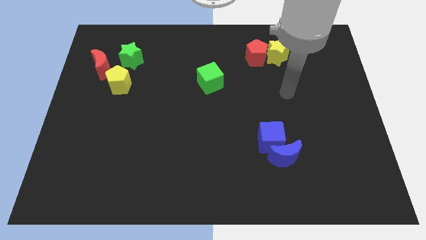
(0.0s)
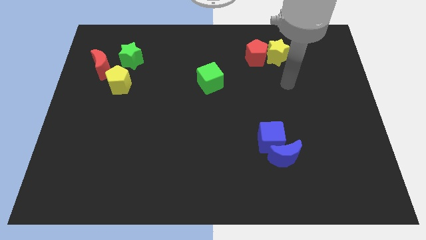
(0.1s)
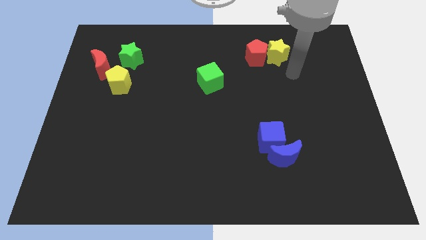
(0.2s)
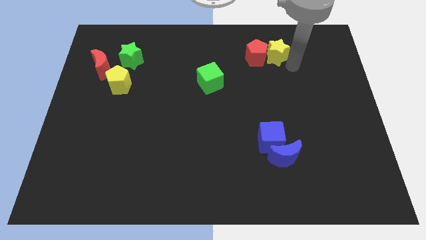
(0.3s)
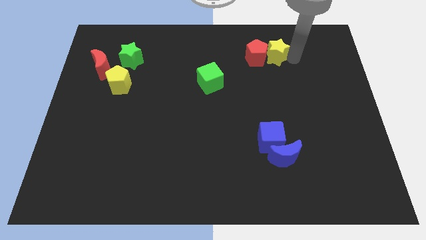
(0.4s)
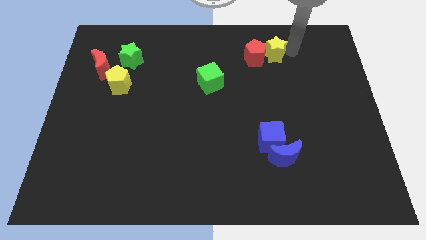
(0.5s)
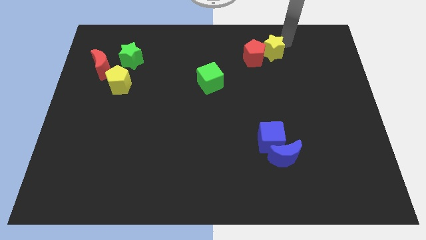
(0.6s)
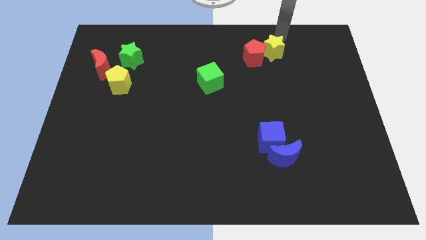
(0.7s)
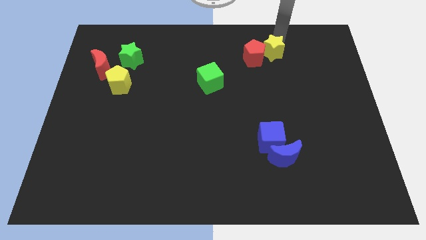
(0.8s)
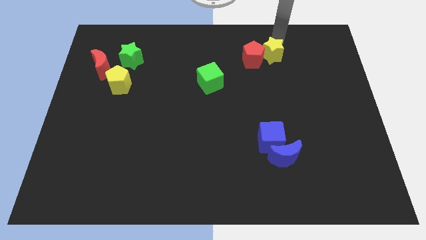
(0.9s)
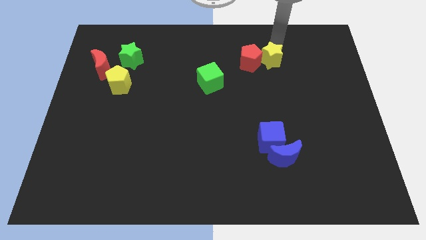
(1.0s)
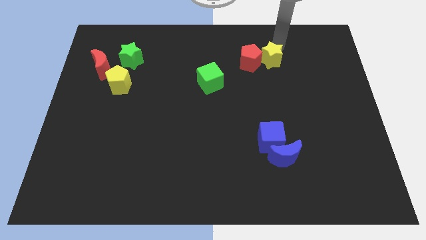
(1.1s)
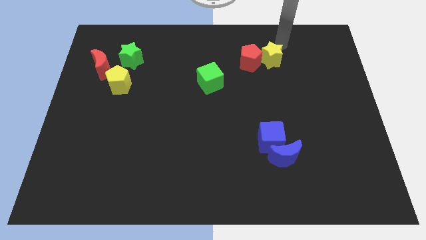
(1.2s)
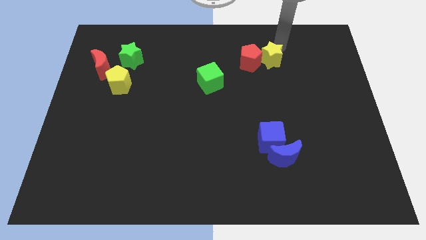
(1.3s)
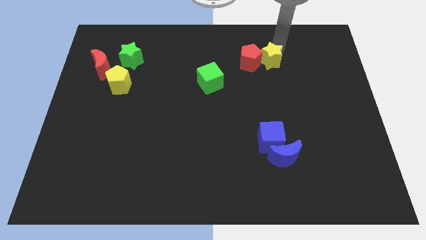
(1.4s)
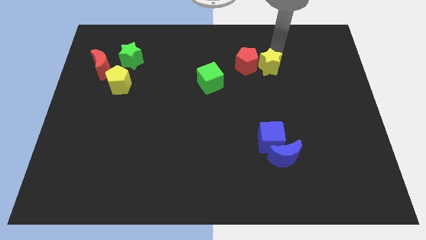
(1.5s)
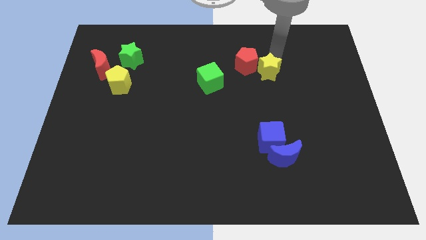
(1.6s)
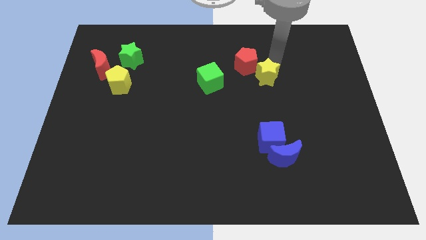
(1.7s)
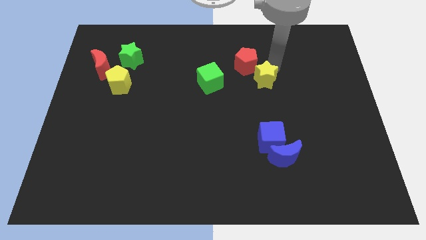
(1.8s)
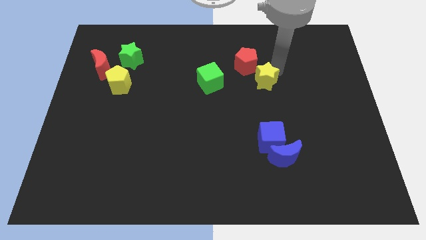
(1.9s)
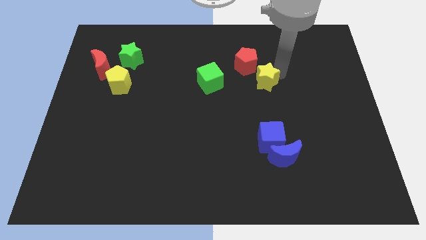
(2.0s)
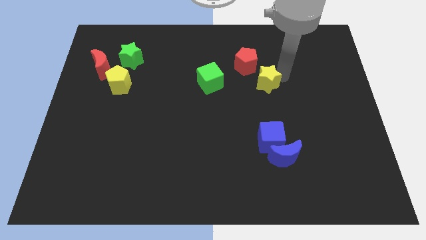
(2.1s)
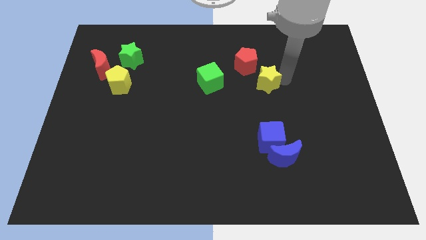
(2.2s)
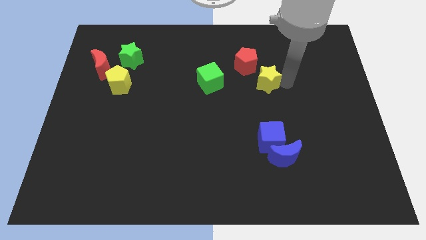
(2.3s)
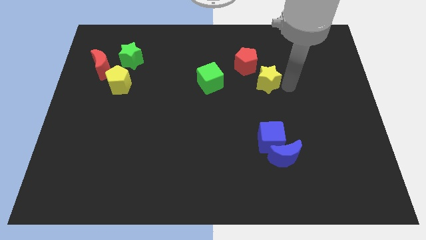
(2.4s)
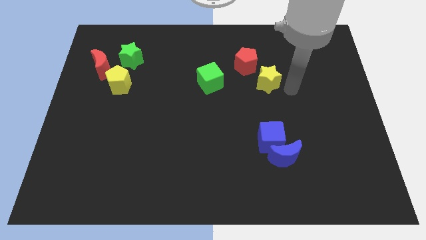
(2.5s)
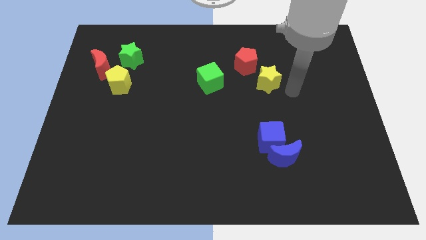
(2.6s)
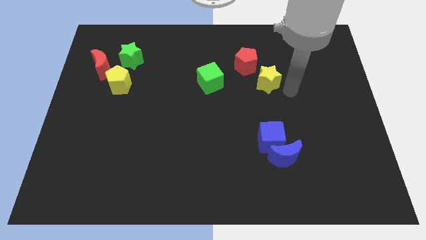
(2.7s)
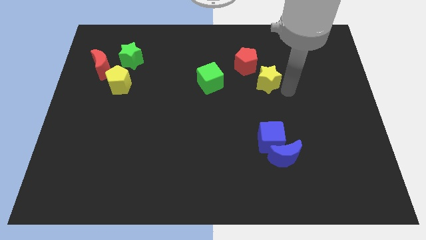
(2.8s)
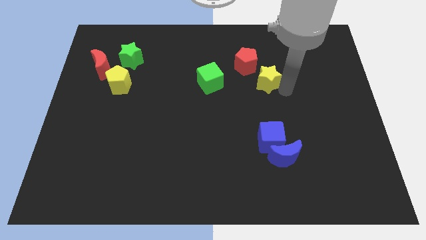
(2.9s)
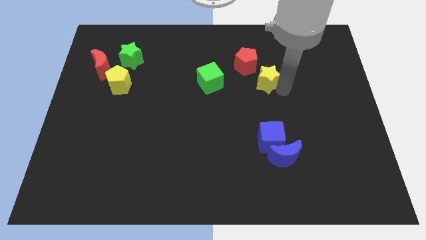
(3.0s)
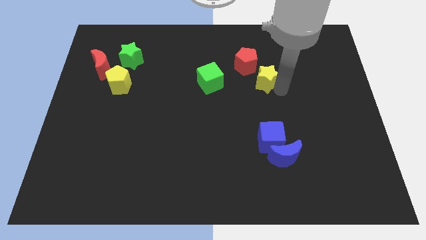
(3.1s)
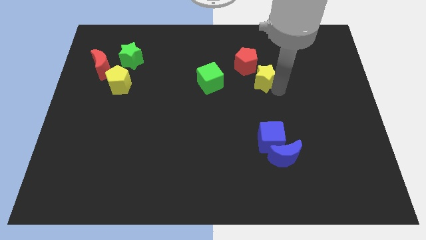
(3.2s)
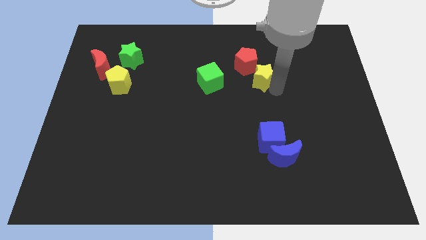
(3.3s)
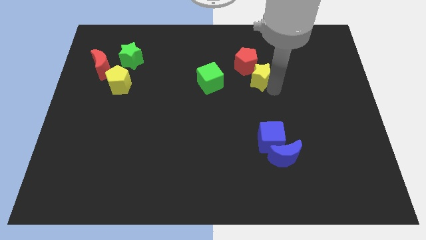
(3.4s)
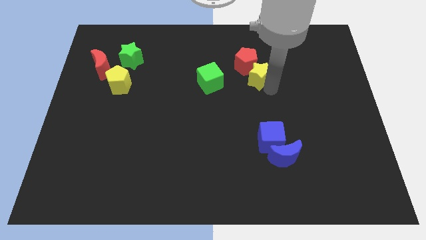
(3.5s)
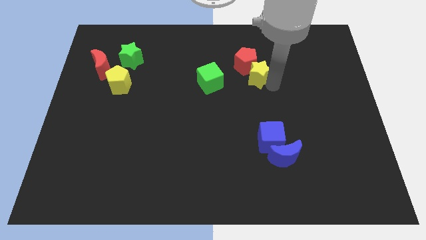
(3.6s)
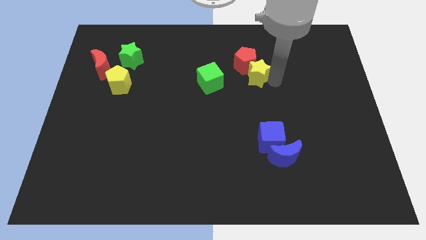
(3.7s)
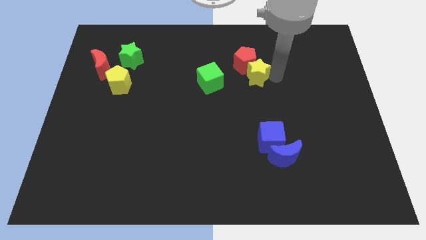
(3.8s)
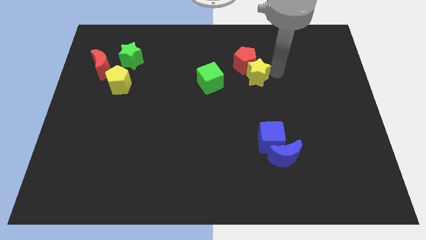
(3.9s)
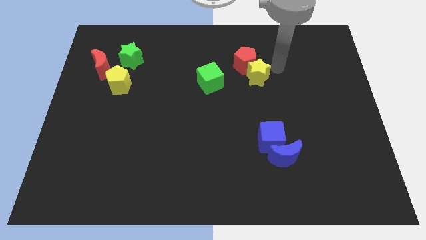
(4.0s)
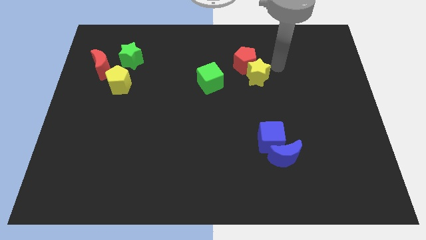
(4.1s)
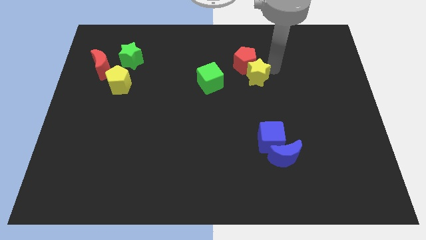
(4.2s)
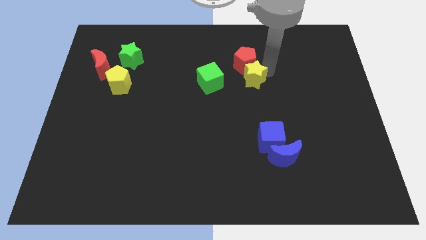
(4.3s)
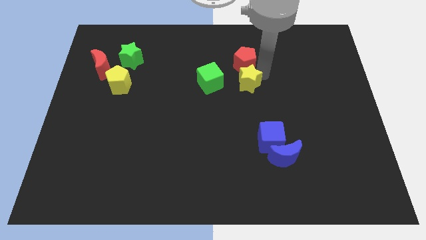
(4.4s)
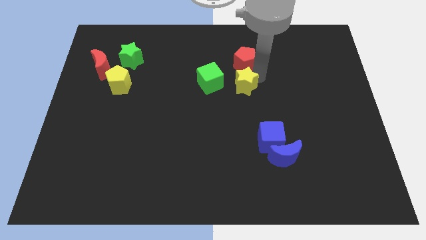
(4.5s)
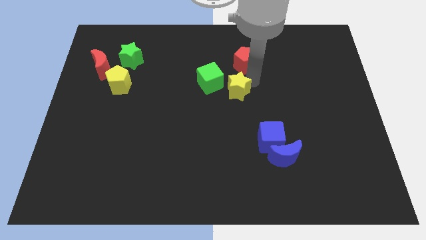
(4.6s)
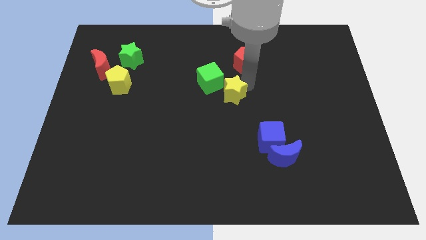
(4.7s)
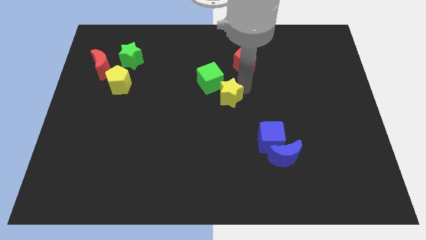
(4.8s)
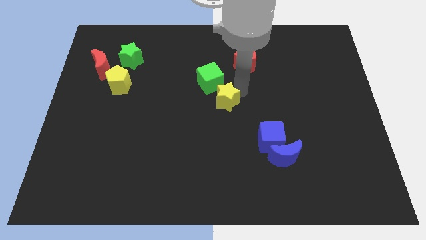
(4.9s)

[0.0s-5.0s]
slide the yellow star down and to the left diagonally

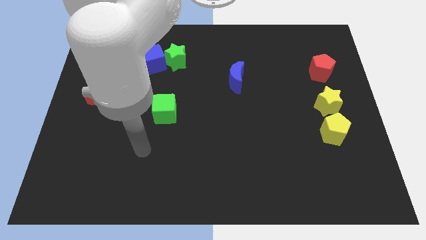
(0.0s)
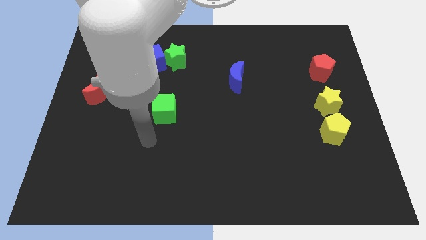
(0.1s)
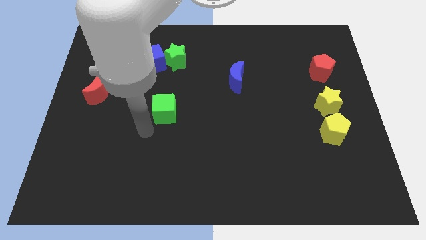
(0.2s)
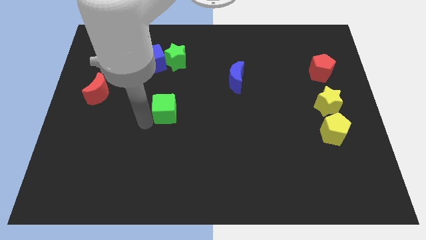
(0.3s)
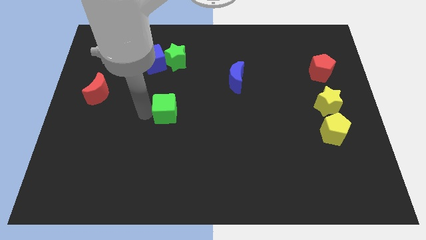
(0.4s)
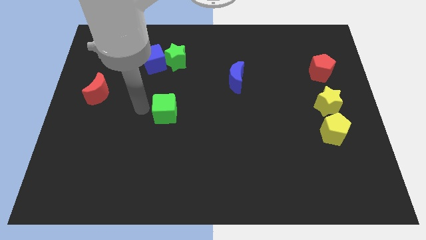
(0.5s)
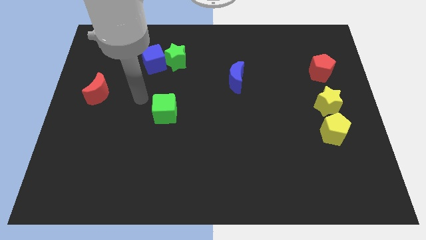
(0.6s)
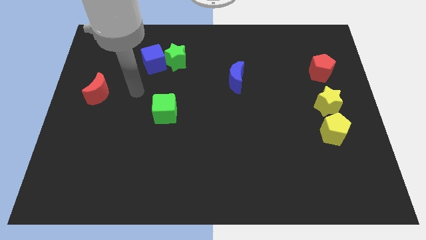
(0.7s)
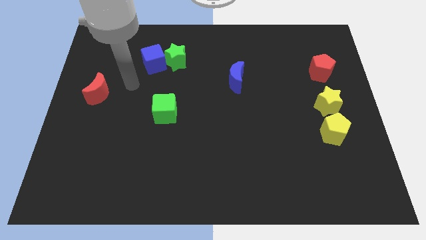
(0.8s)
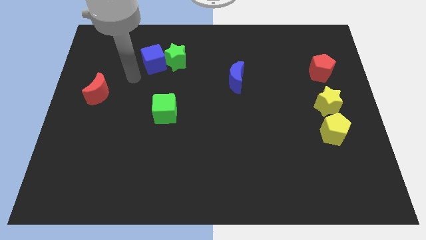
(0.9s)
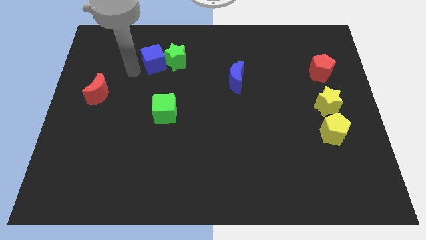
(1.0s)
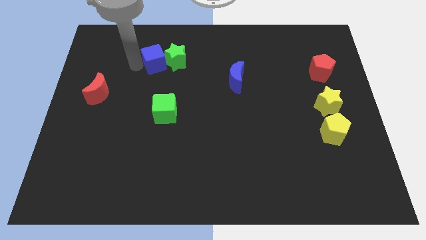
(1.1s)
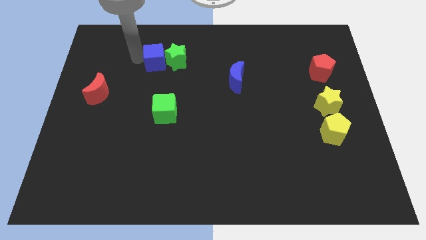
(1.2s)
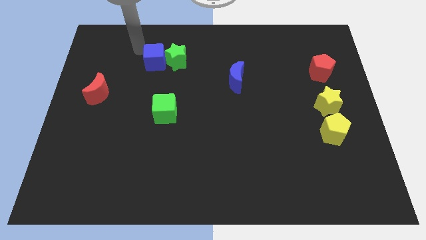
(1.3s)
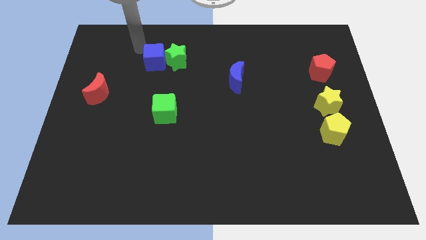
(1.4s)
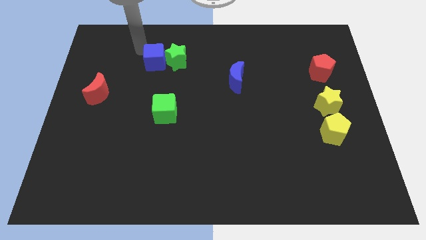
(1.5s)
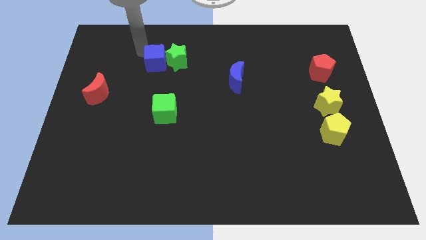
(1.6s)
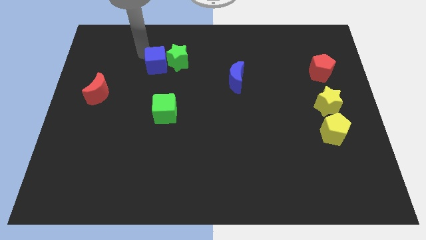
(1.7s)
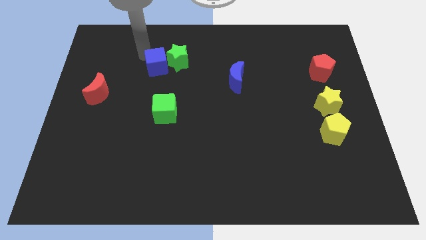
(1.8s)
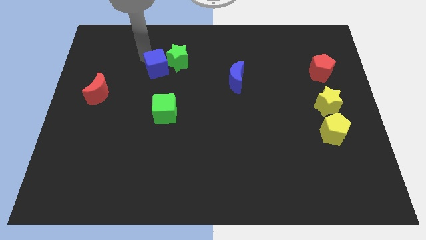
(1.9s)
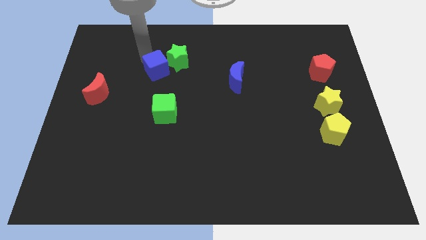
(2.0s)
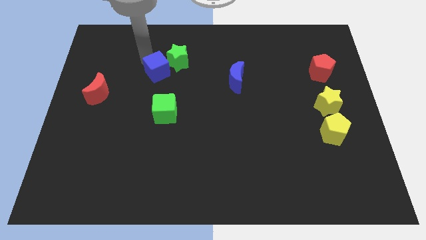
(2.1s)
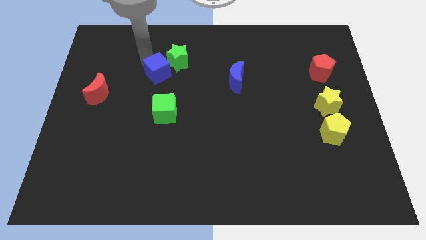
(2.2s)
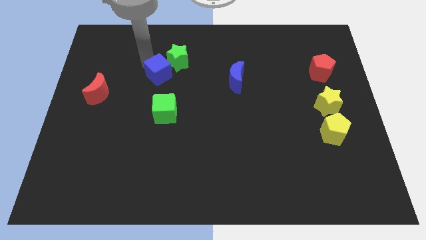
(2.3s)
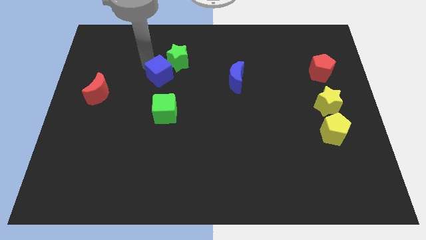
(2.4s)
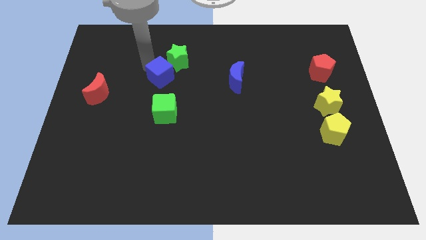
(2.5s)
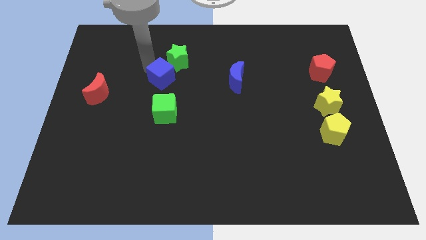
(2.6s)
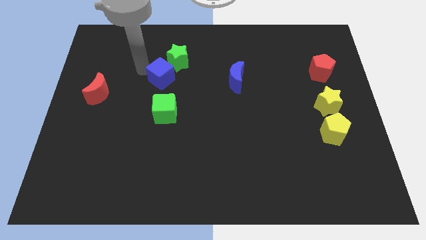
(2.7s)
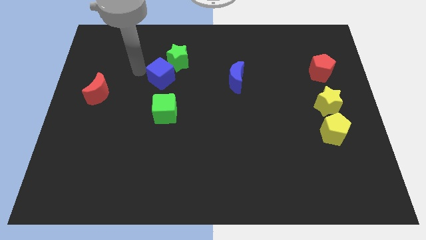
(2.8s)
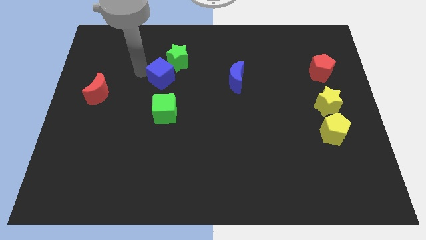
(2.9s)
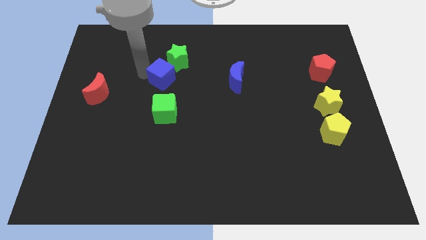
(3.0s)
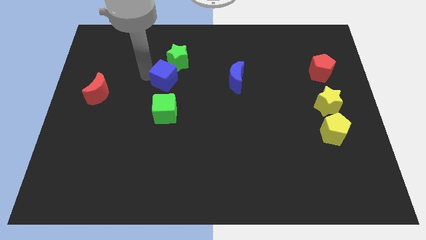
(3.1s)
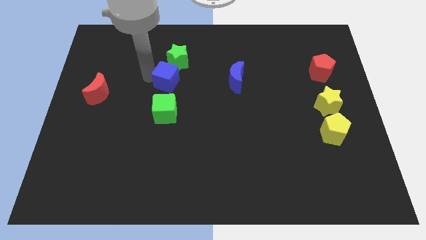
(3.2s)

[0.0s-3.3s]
slide the blue cube diagonally down and right somewhat
